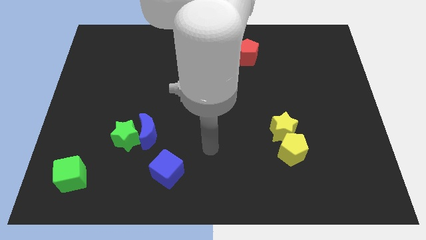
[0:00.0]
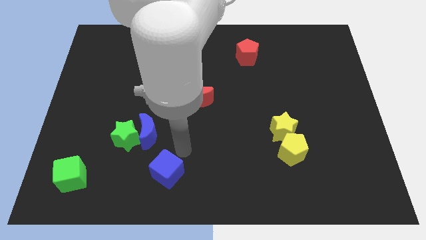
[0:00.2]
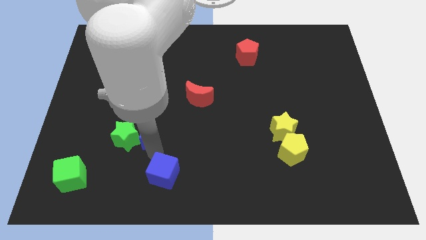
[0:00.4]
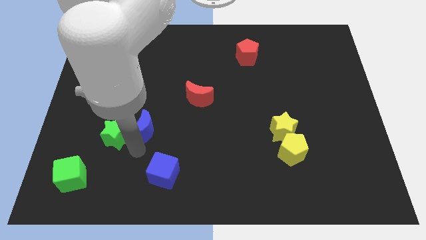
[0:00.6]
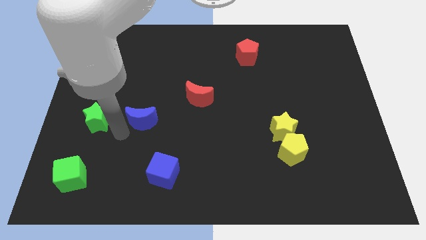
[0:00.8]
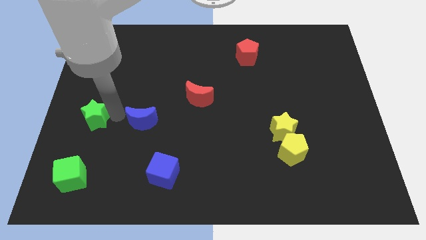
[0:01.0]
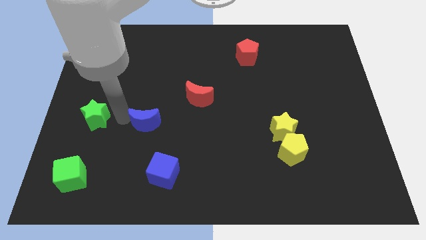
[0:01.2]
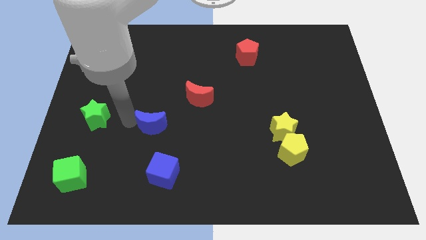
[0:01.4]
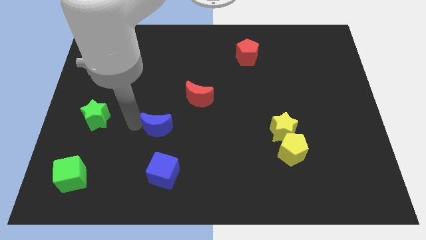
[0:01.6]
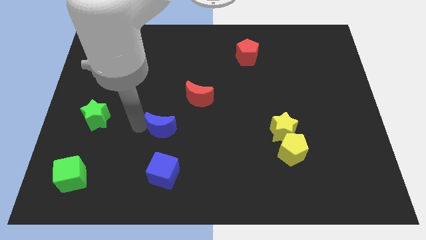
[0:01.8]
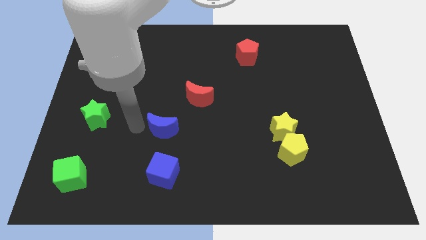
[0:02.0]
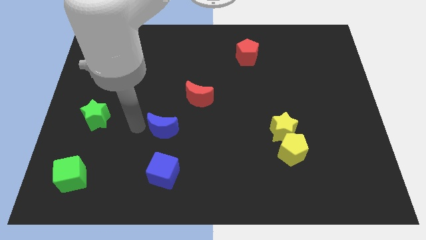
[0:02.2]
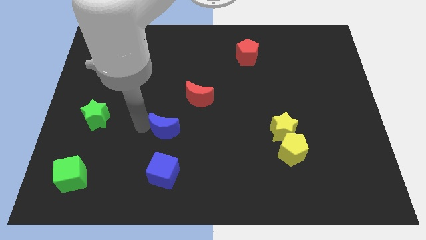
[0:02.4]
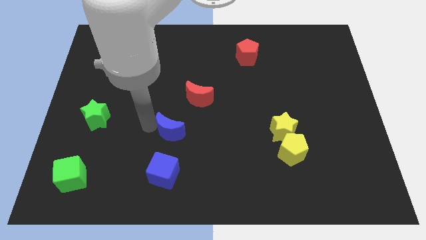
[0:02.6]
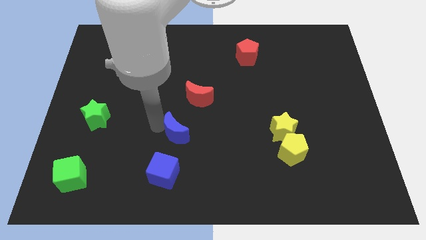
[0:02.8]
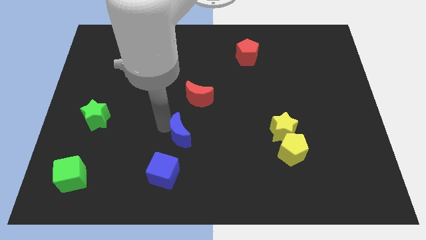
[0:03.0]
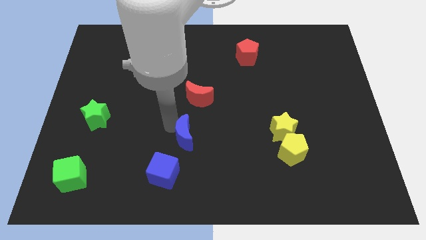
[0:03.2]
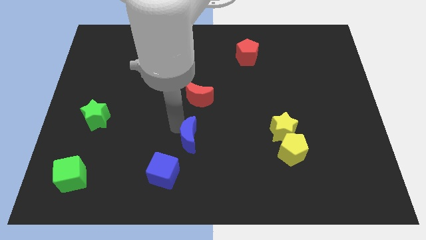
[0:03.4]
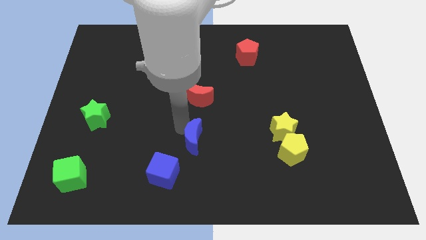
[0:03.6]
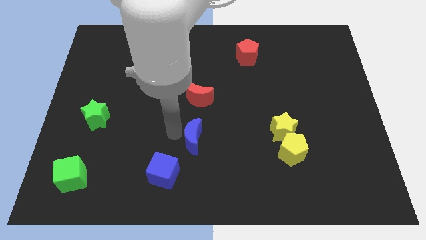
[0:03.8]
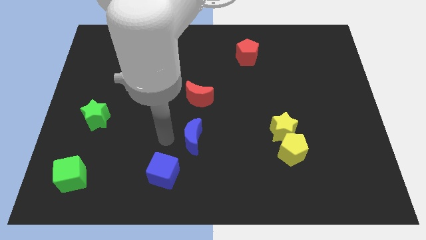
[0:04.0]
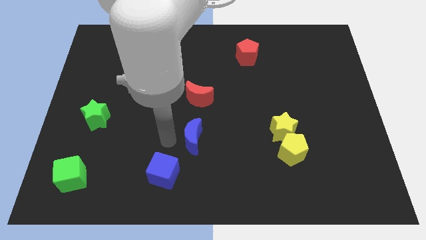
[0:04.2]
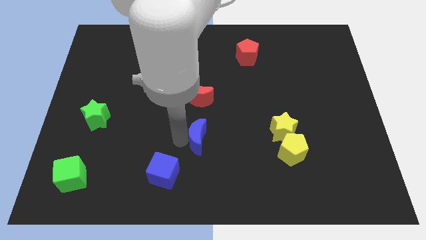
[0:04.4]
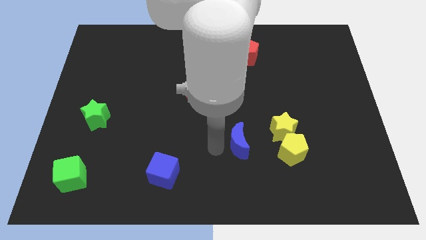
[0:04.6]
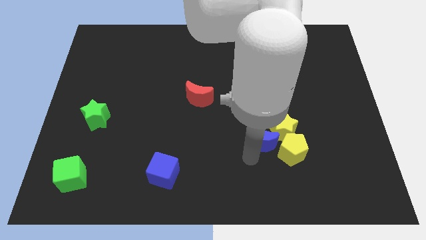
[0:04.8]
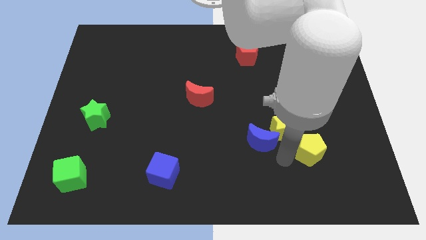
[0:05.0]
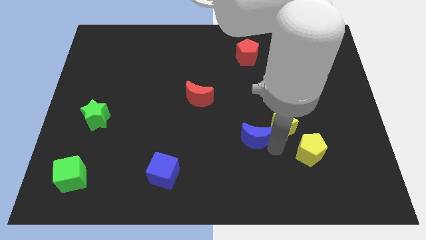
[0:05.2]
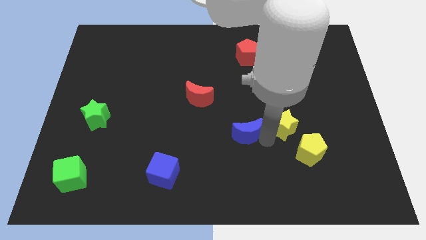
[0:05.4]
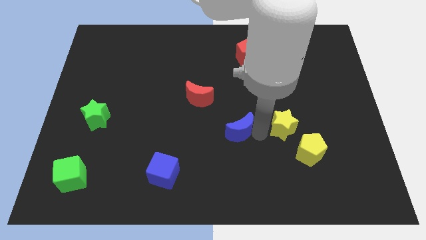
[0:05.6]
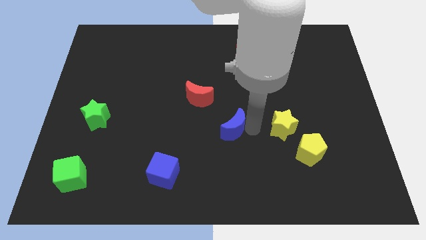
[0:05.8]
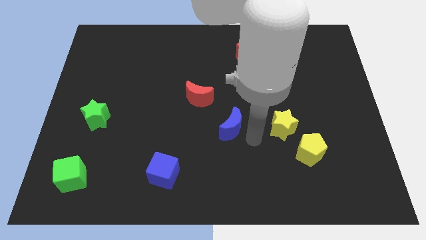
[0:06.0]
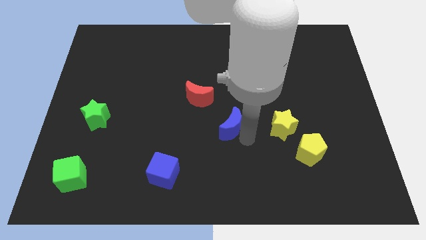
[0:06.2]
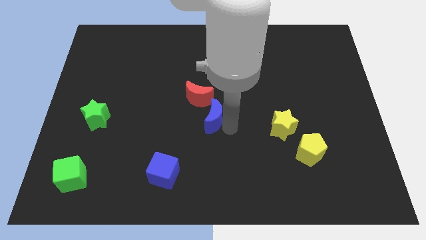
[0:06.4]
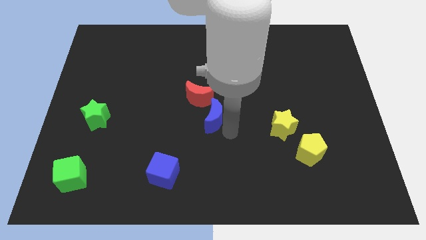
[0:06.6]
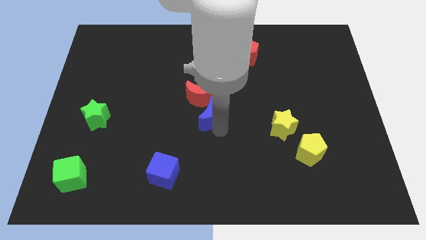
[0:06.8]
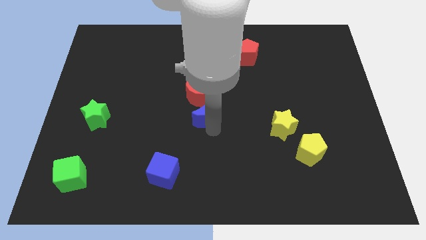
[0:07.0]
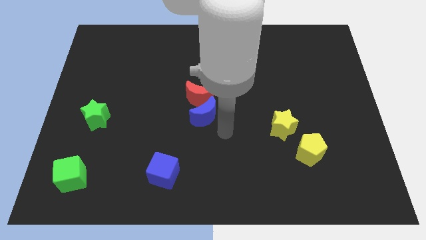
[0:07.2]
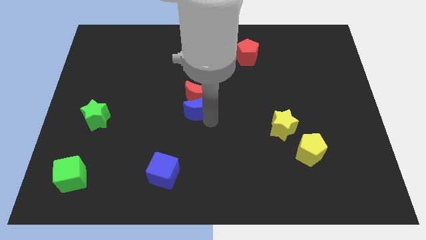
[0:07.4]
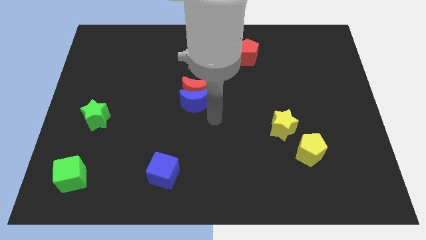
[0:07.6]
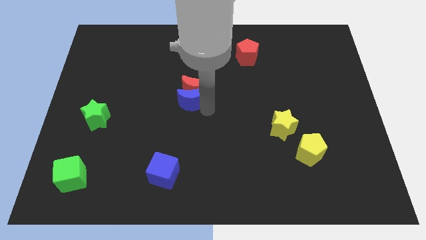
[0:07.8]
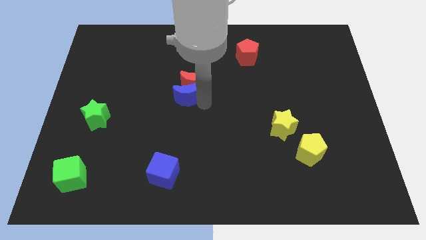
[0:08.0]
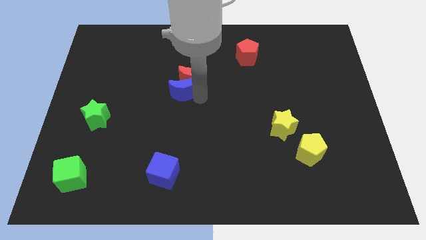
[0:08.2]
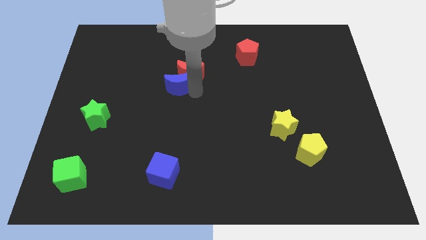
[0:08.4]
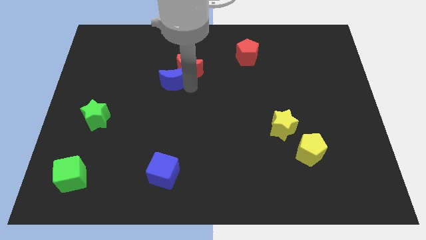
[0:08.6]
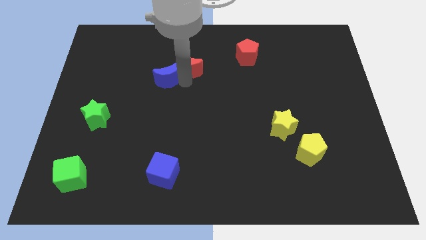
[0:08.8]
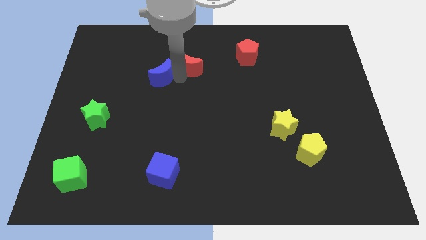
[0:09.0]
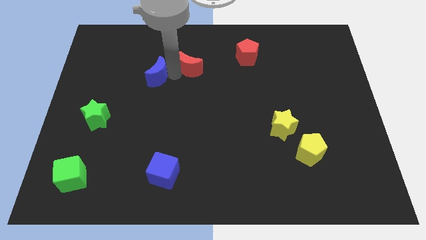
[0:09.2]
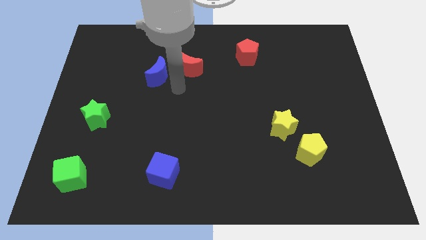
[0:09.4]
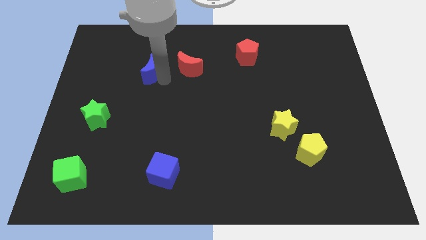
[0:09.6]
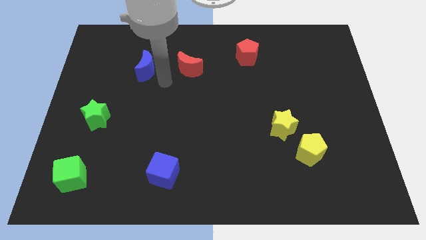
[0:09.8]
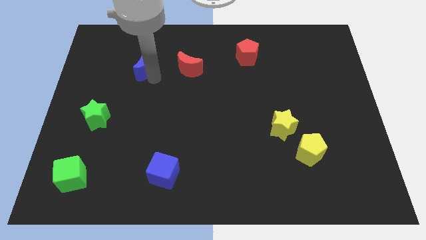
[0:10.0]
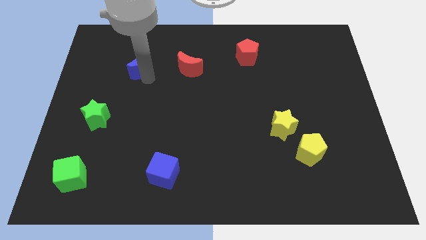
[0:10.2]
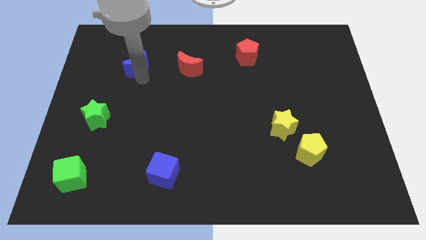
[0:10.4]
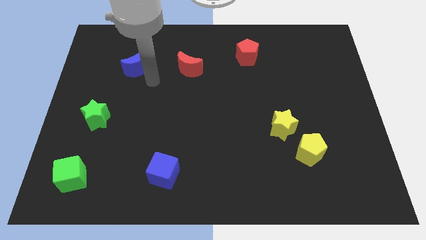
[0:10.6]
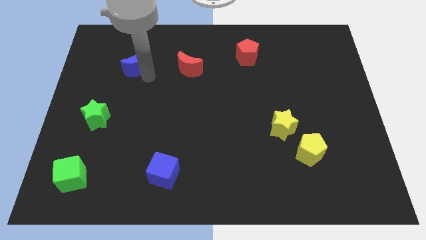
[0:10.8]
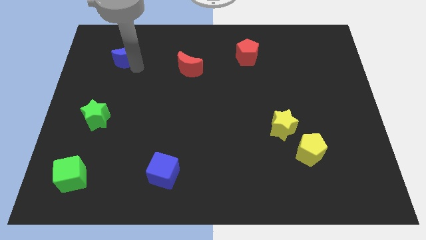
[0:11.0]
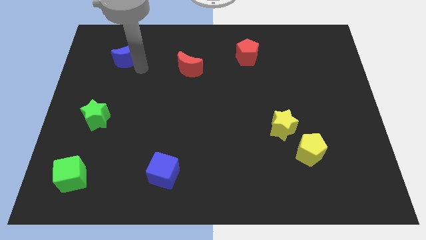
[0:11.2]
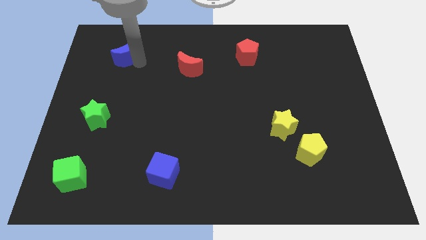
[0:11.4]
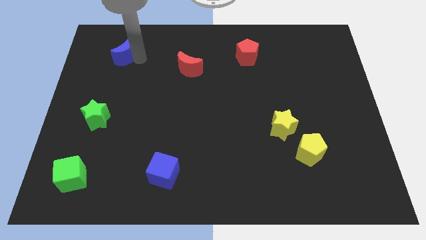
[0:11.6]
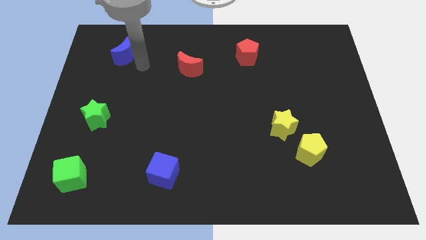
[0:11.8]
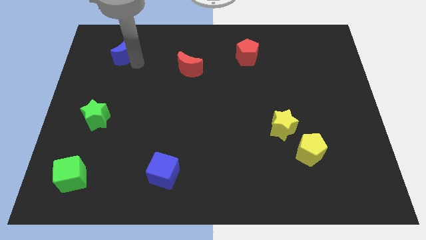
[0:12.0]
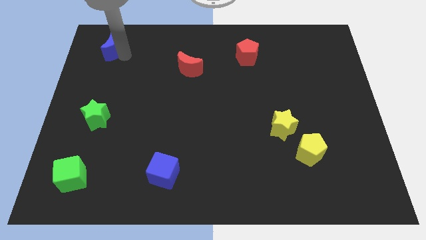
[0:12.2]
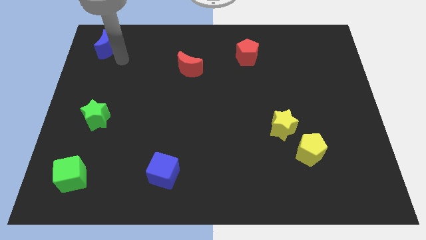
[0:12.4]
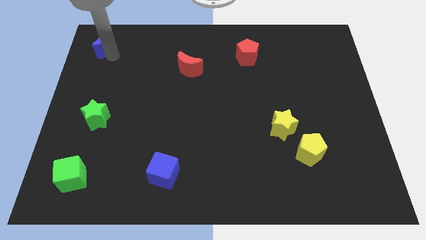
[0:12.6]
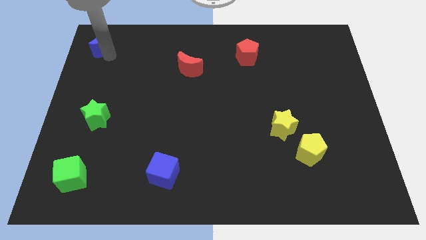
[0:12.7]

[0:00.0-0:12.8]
slide the blue moon to the upper left corner
